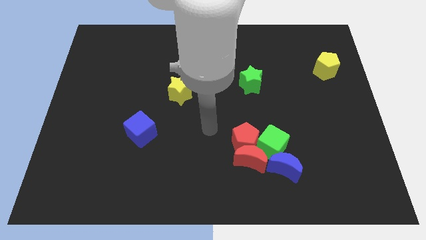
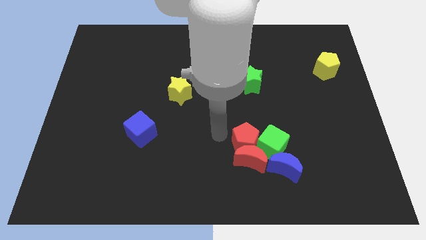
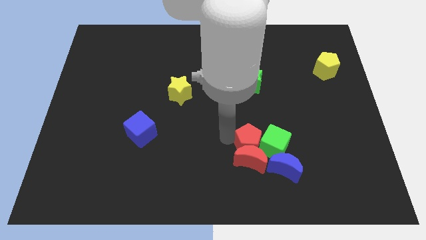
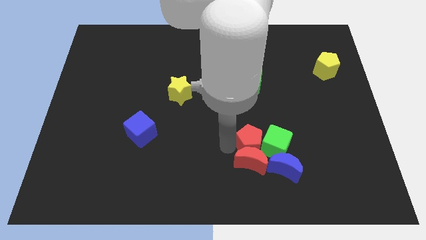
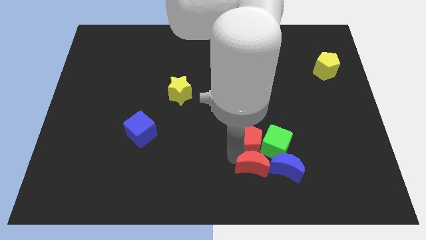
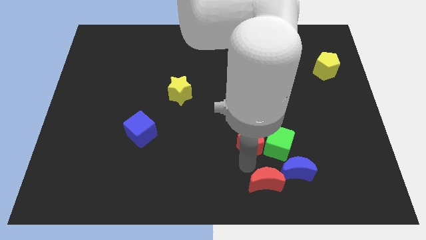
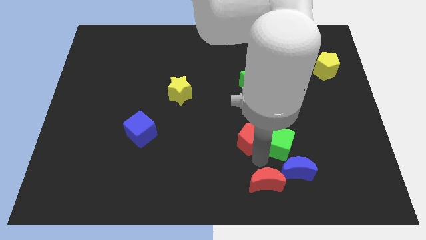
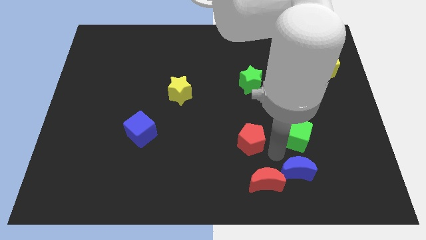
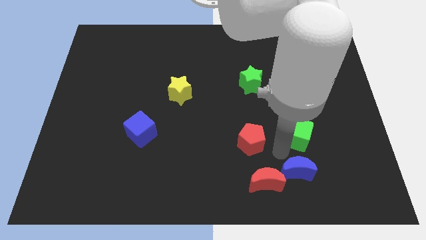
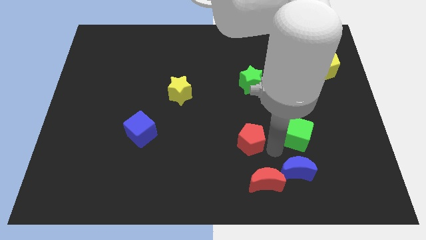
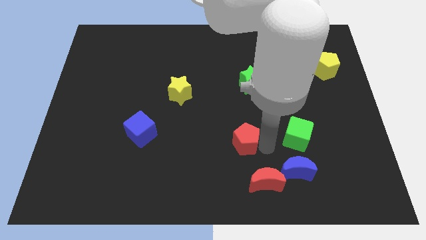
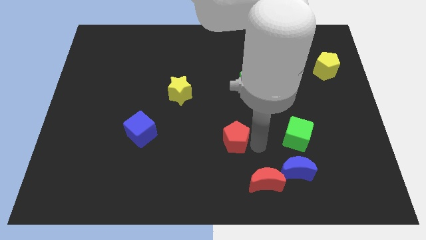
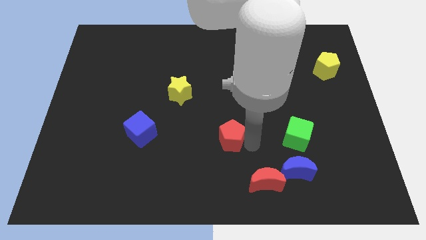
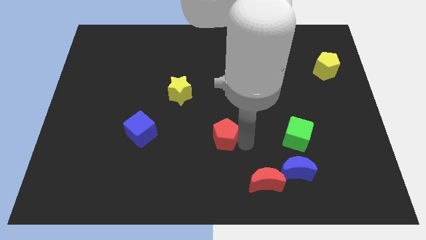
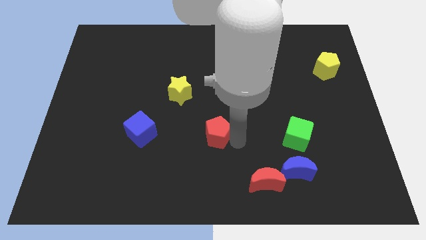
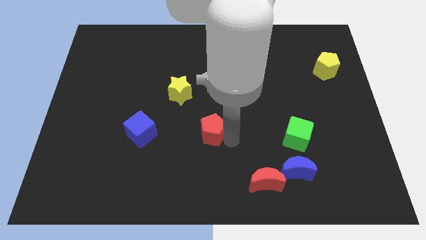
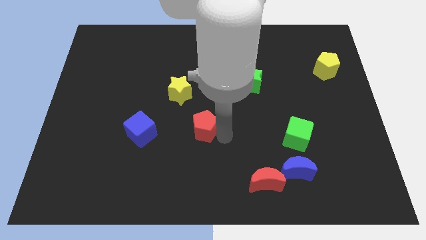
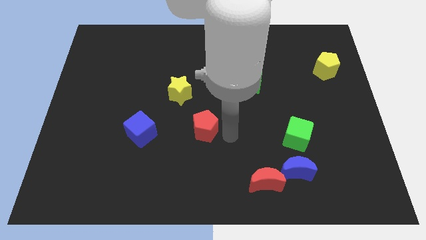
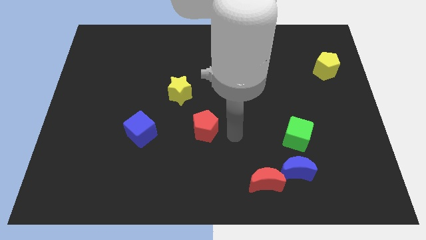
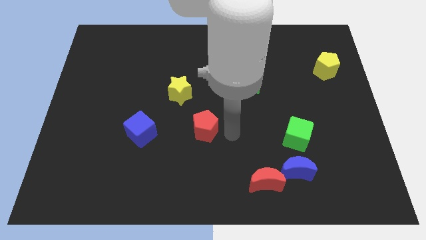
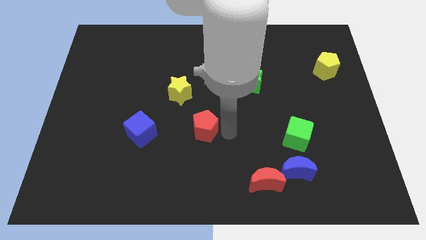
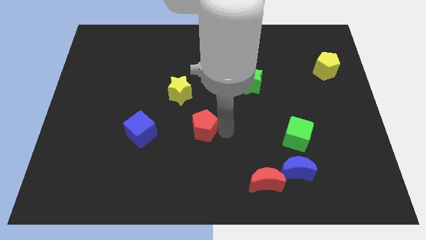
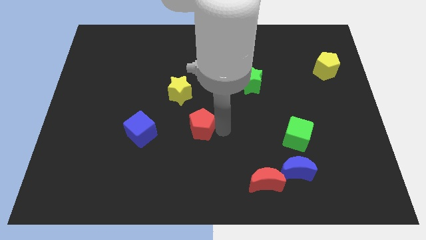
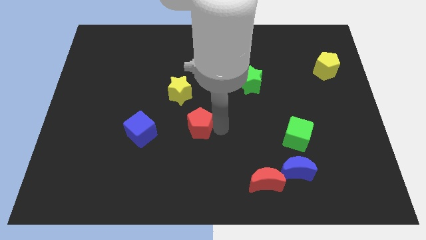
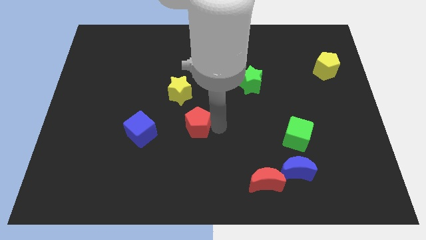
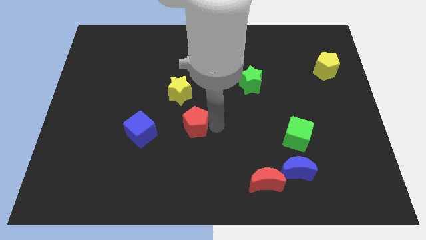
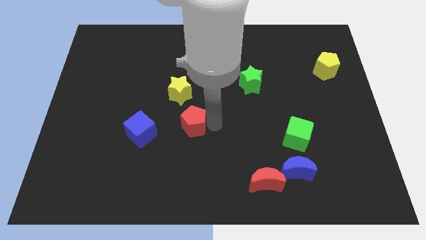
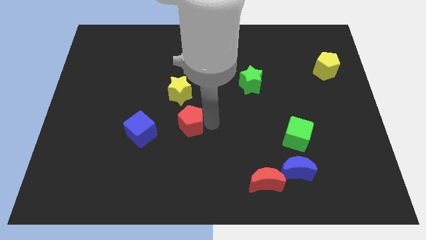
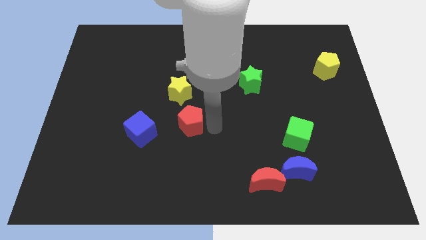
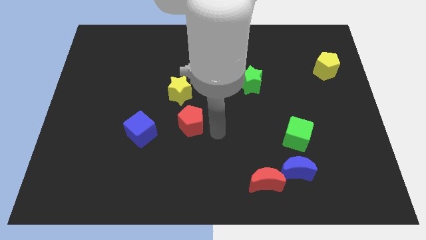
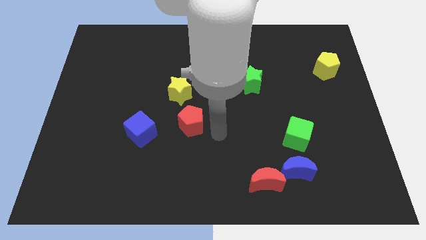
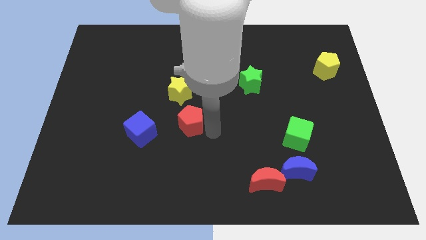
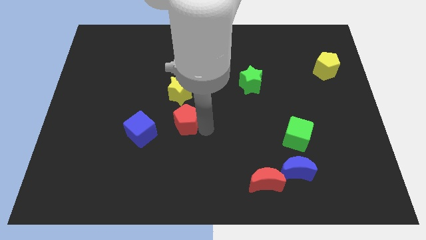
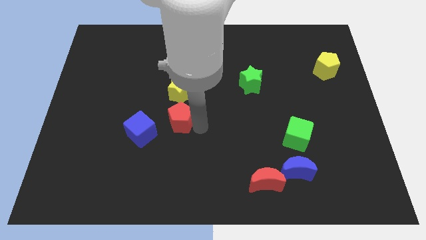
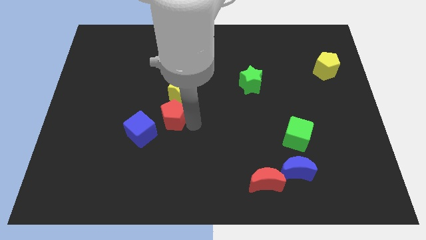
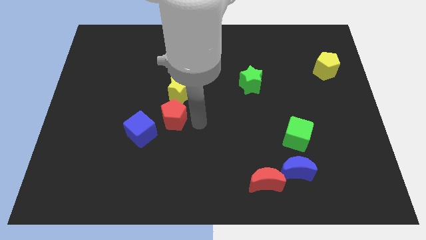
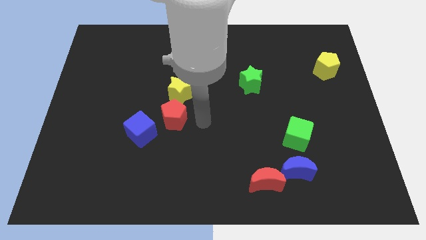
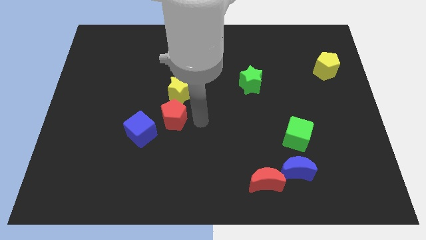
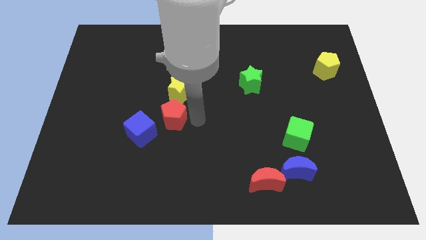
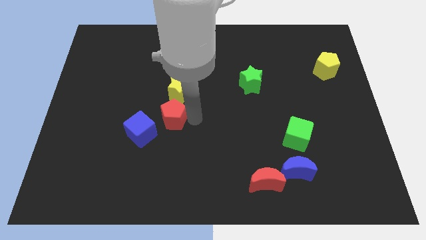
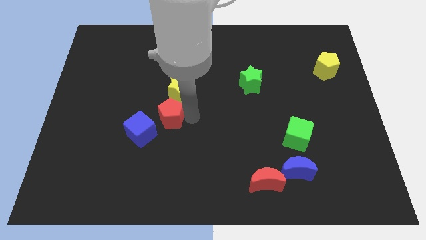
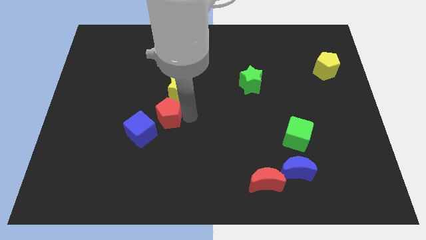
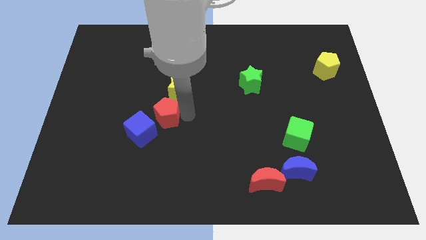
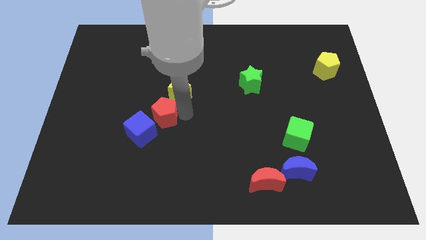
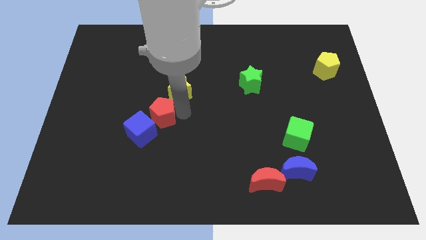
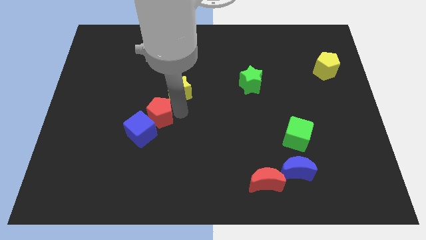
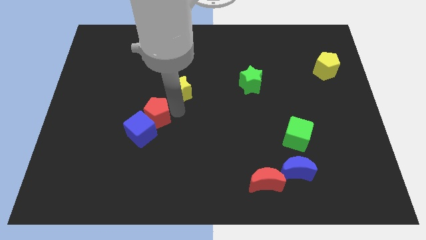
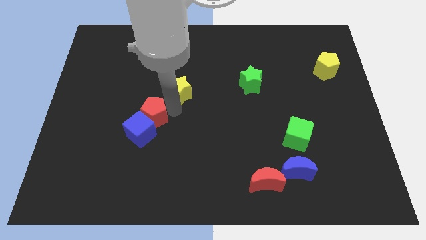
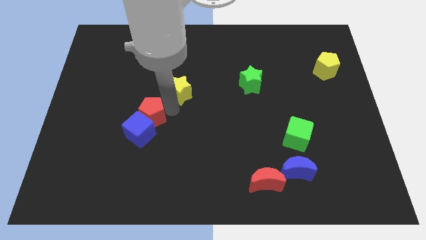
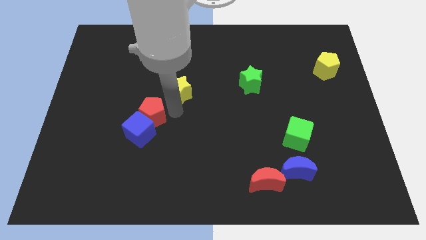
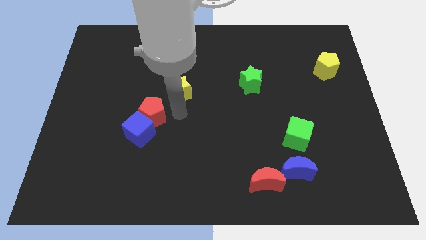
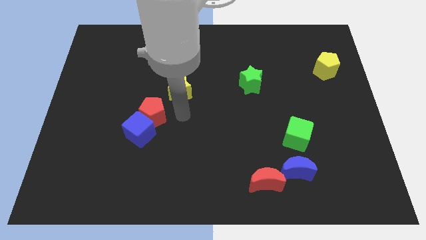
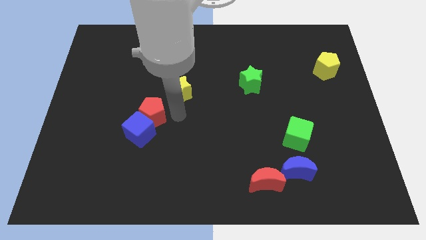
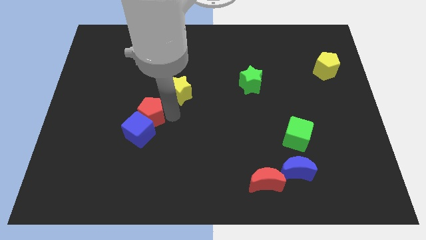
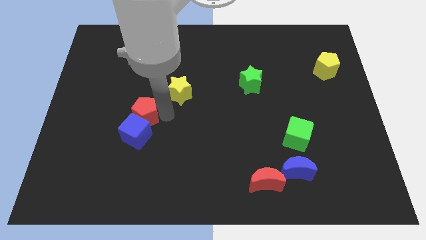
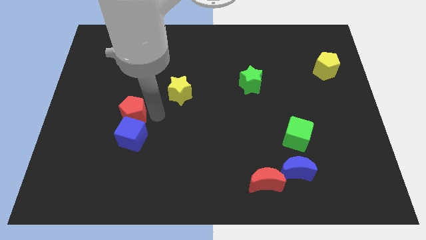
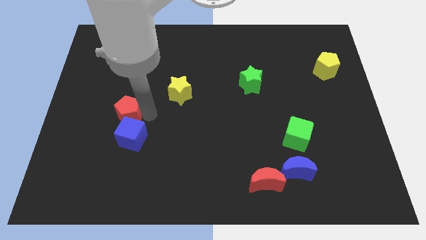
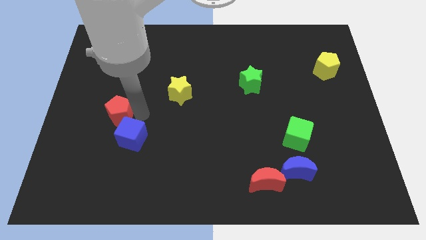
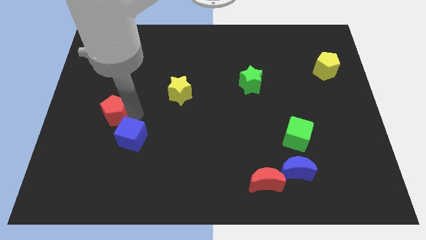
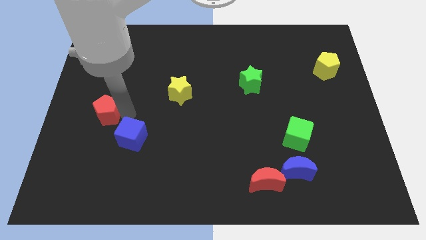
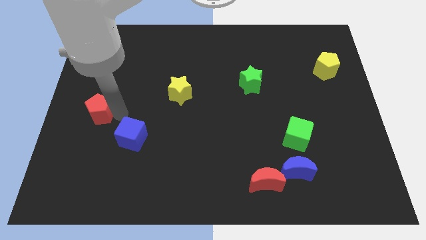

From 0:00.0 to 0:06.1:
slide the red pentagon to the center left

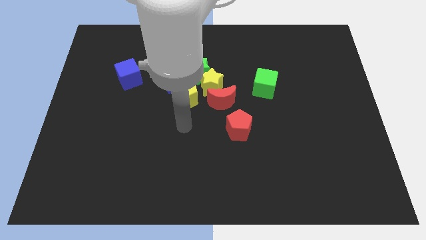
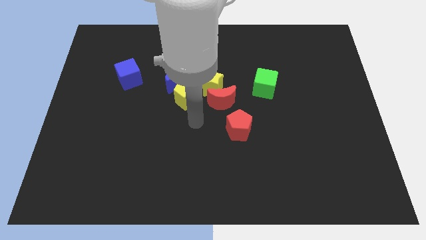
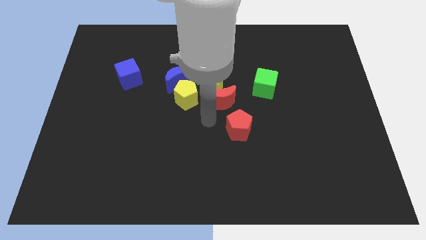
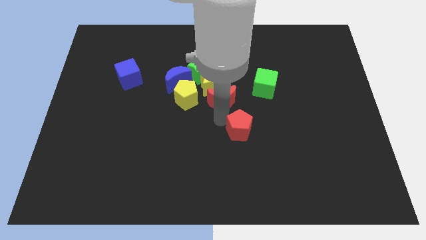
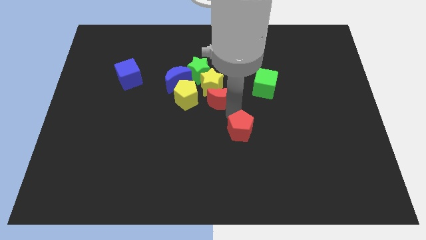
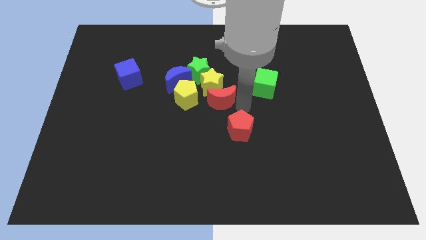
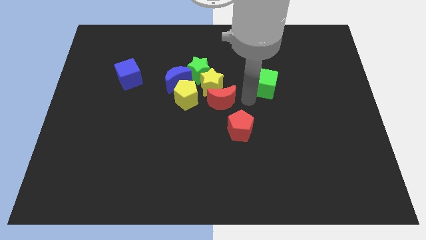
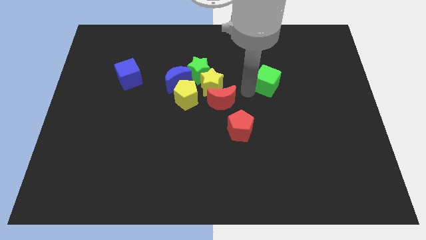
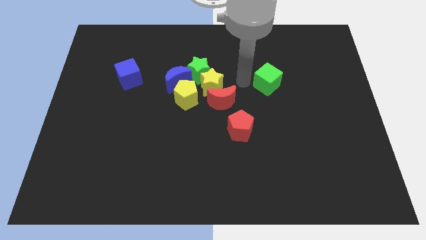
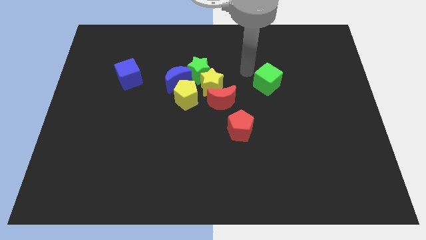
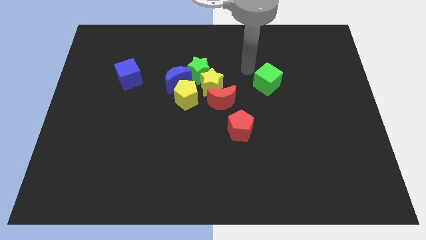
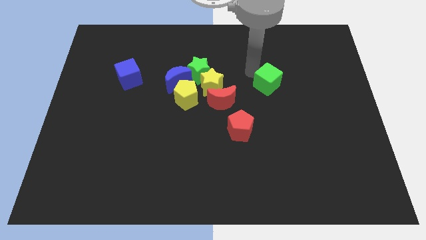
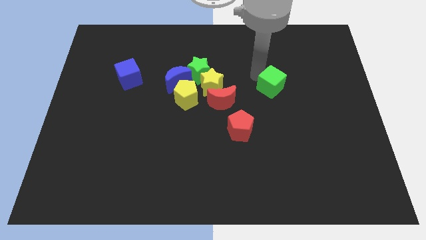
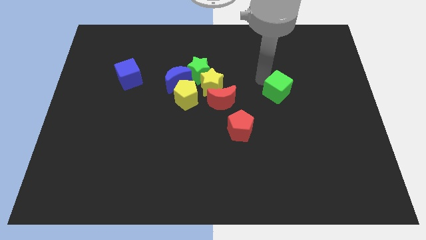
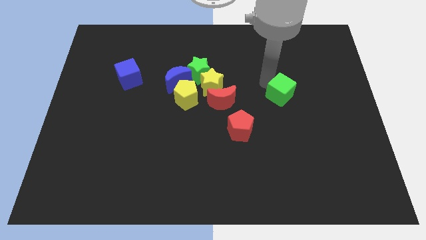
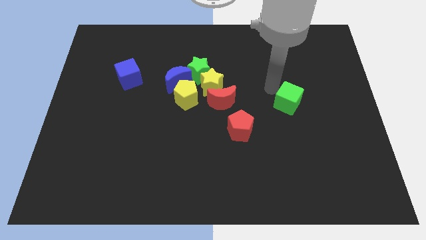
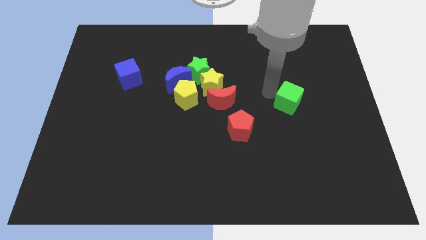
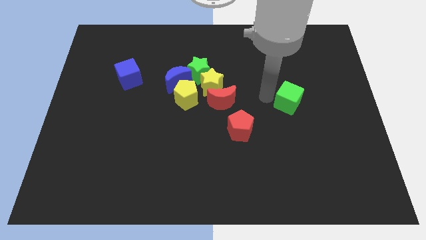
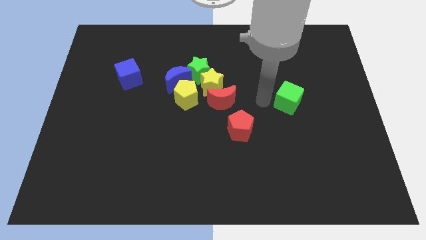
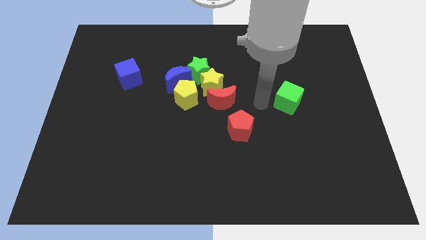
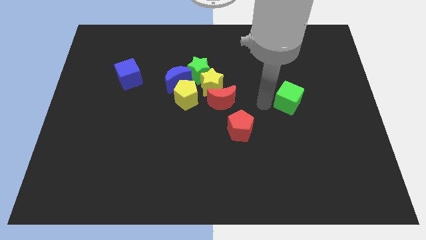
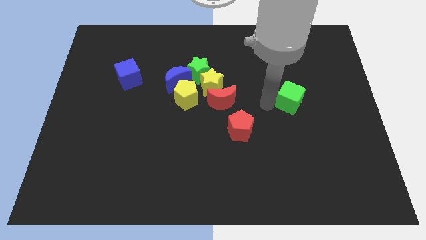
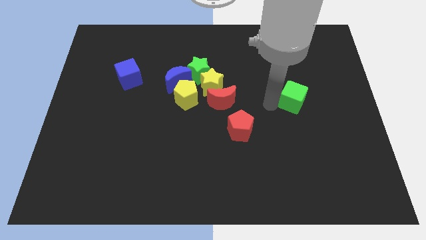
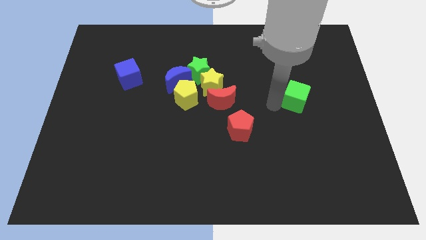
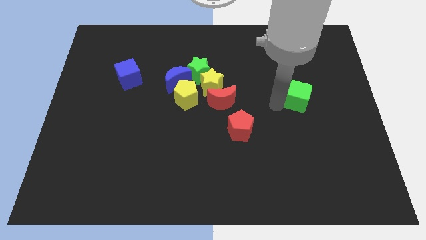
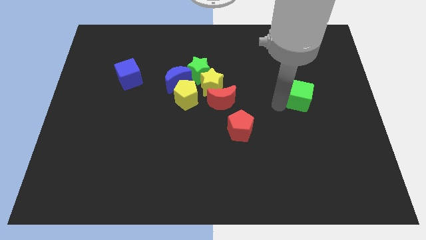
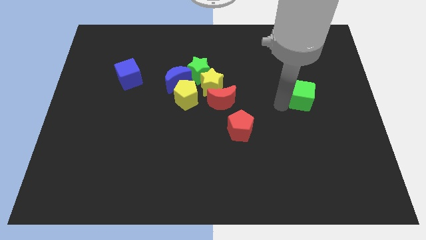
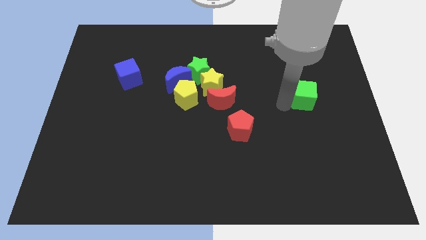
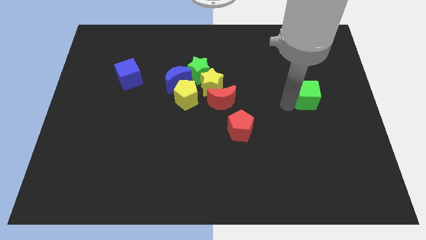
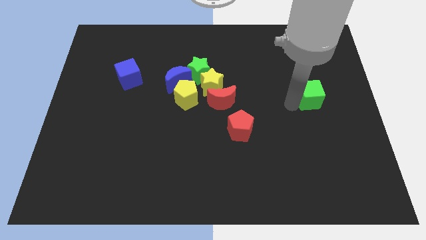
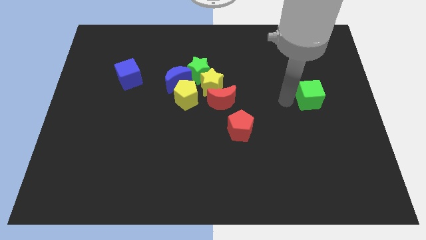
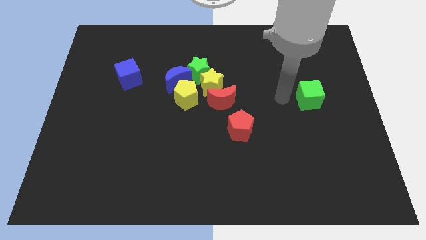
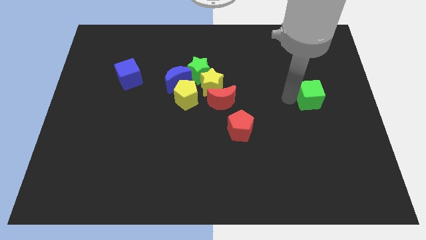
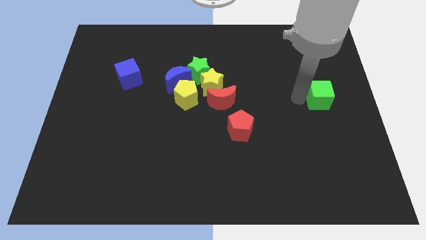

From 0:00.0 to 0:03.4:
move the green cube to the center right
